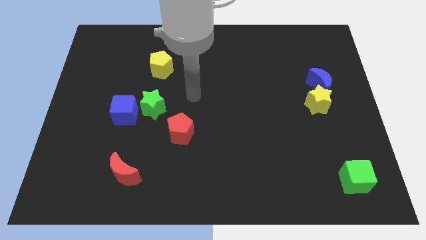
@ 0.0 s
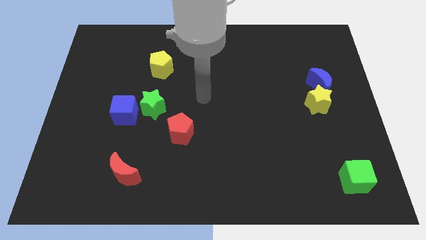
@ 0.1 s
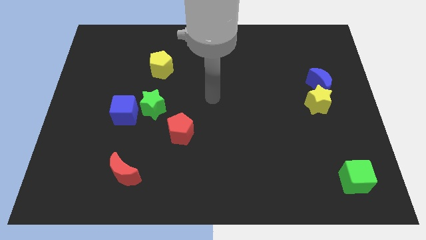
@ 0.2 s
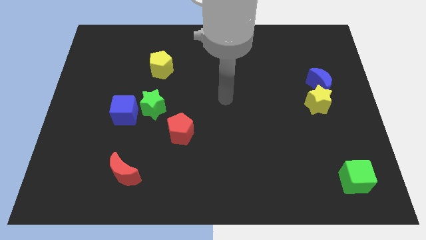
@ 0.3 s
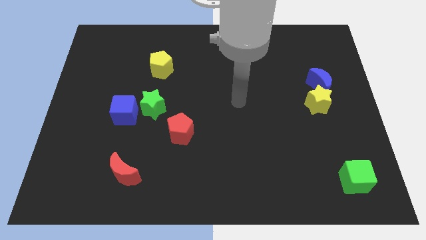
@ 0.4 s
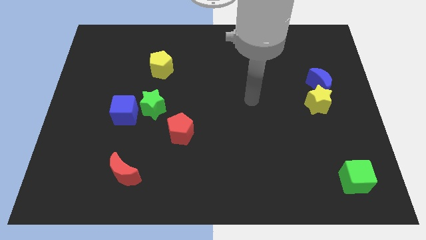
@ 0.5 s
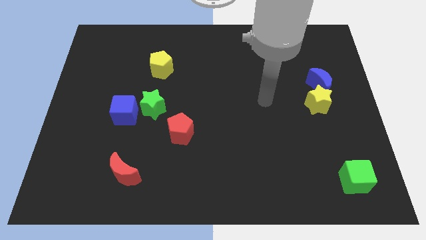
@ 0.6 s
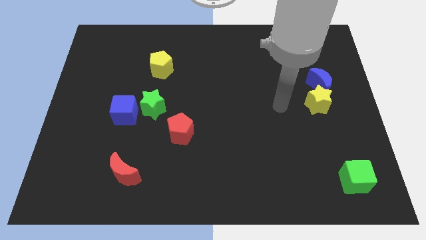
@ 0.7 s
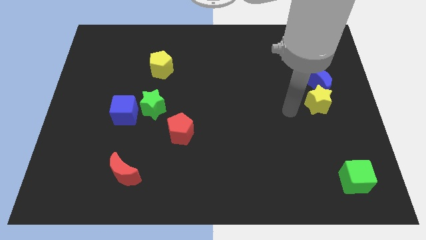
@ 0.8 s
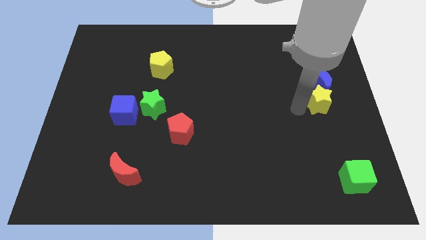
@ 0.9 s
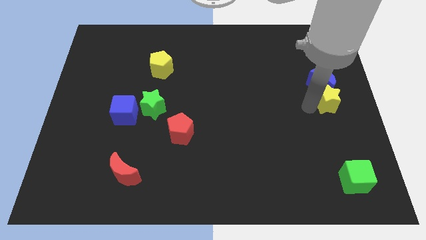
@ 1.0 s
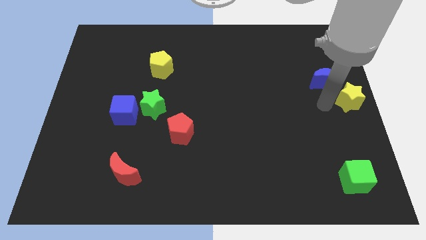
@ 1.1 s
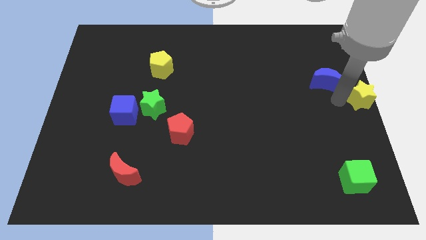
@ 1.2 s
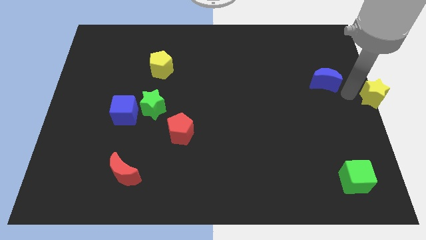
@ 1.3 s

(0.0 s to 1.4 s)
move the blue moon away from the yellow star

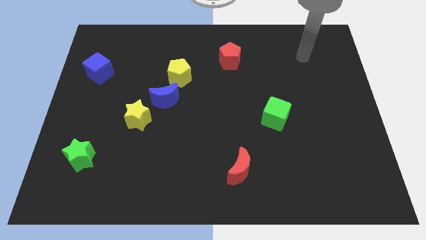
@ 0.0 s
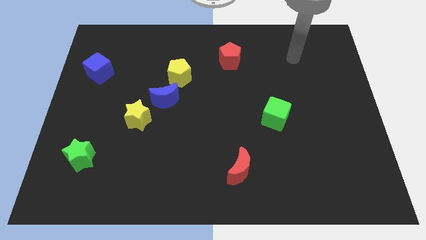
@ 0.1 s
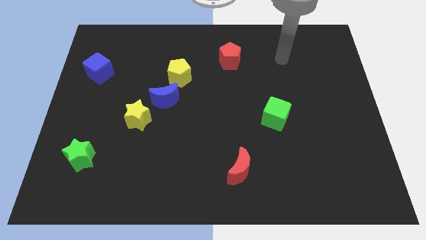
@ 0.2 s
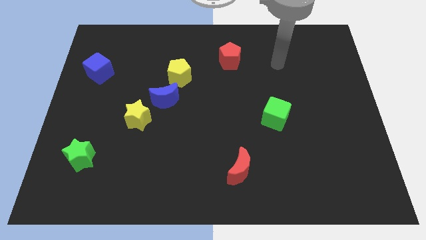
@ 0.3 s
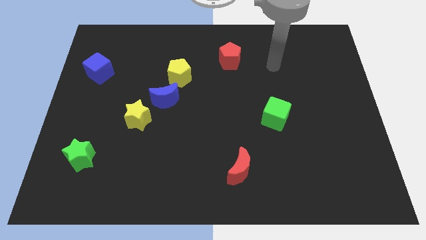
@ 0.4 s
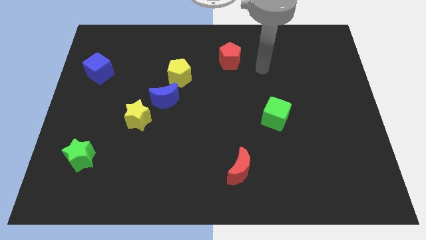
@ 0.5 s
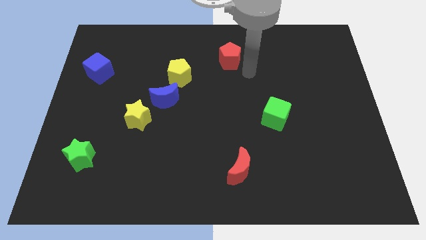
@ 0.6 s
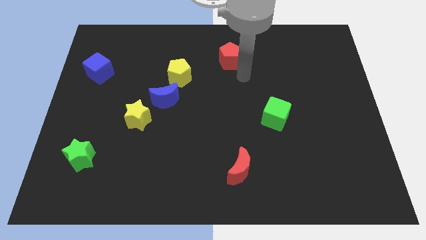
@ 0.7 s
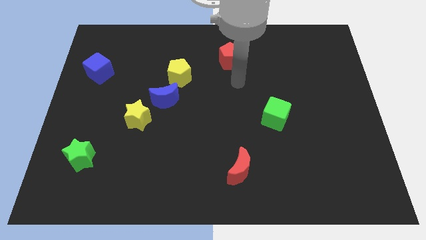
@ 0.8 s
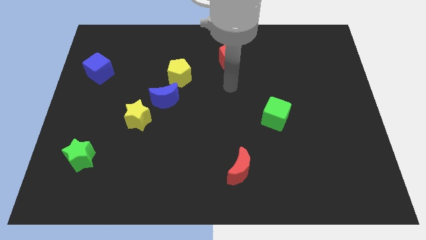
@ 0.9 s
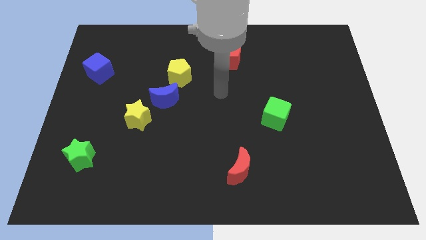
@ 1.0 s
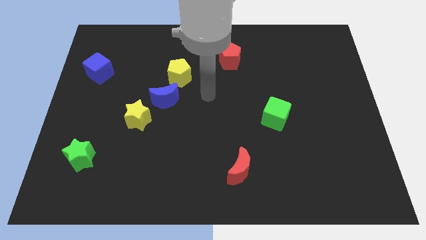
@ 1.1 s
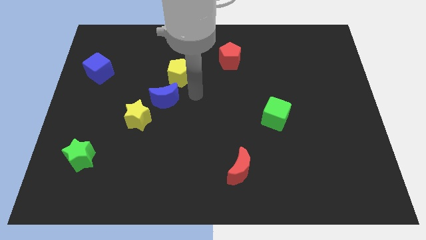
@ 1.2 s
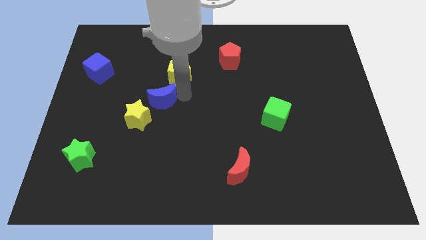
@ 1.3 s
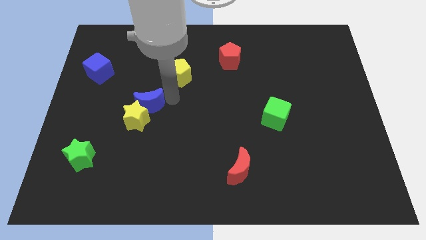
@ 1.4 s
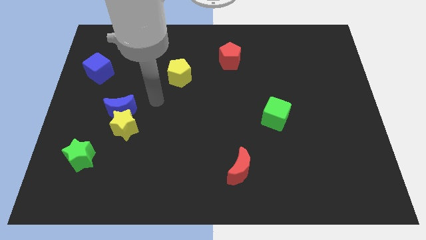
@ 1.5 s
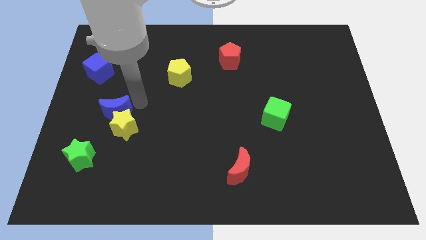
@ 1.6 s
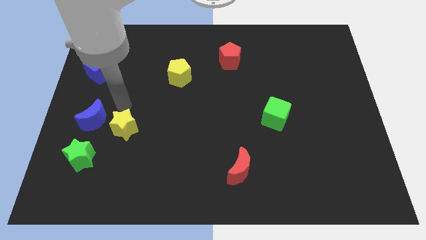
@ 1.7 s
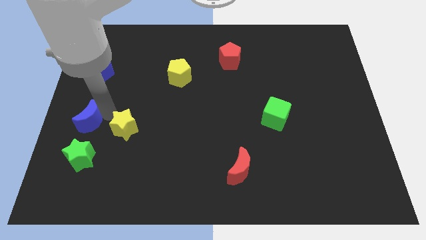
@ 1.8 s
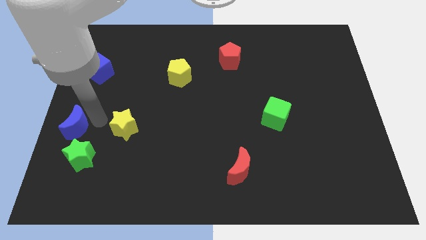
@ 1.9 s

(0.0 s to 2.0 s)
move the yellow star away from the blue moon

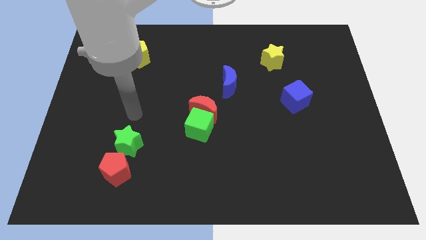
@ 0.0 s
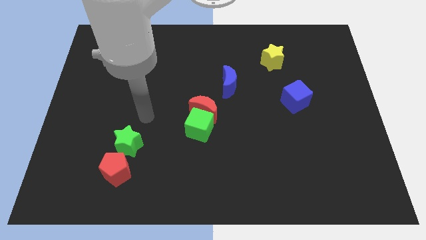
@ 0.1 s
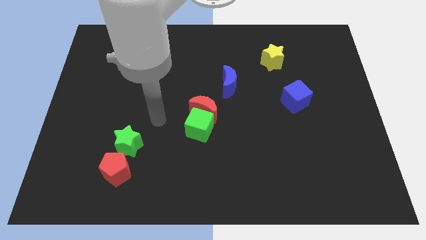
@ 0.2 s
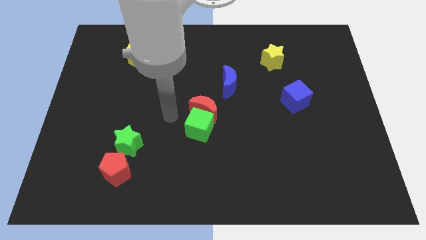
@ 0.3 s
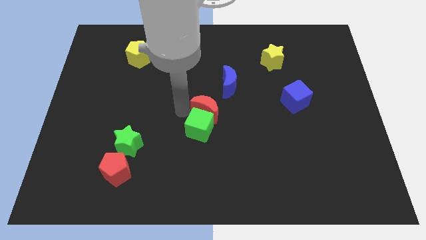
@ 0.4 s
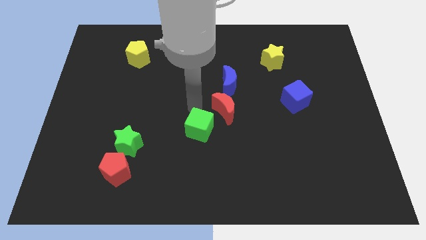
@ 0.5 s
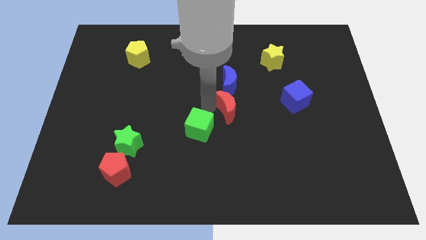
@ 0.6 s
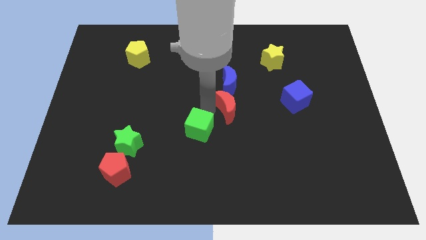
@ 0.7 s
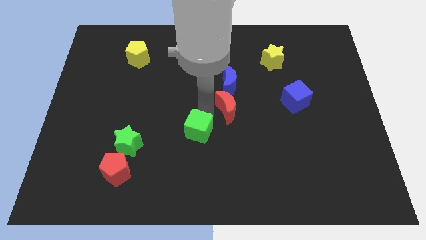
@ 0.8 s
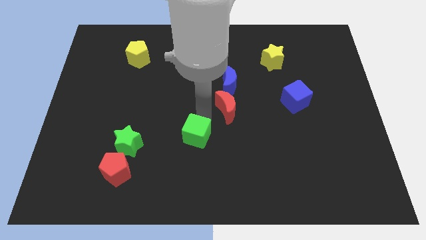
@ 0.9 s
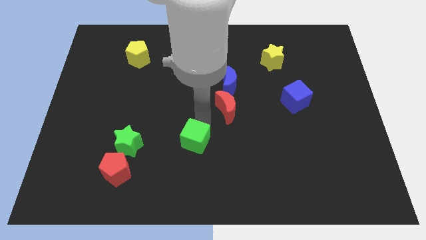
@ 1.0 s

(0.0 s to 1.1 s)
separate the green cube from the red moon

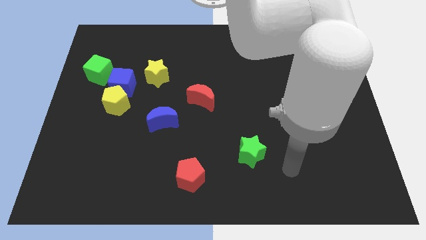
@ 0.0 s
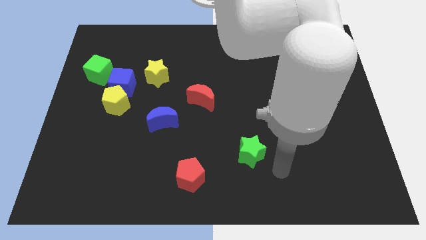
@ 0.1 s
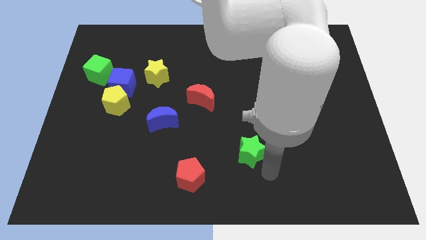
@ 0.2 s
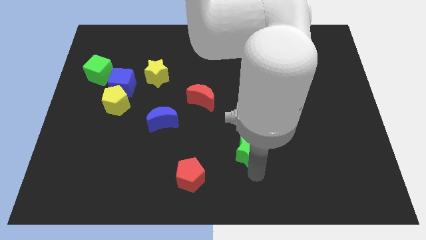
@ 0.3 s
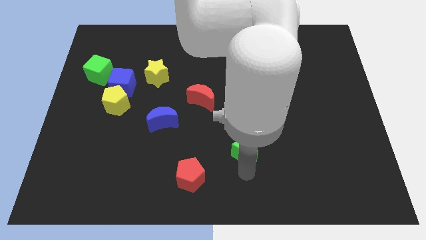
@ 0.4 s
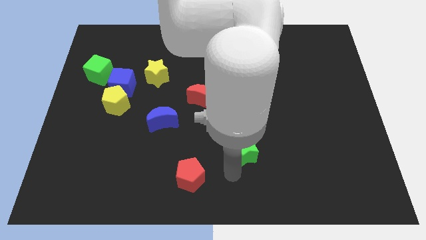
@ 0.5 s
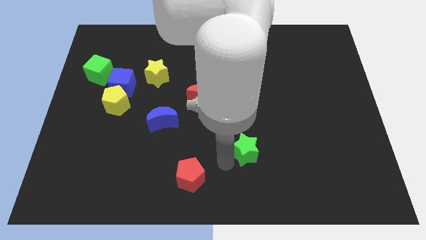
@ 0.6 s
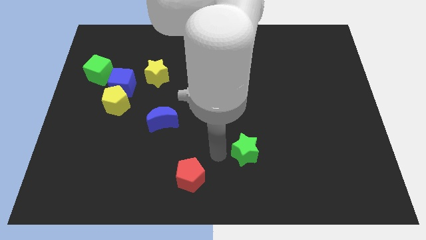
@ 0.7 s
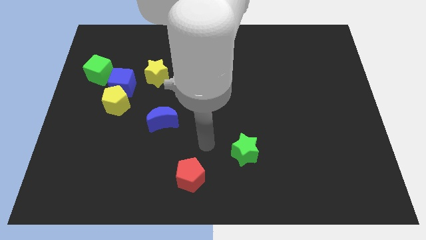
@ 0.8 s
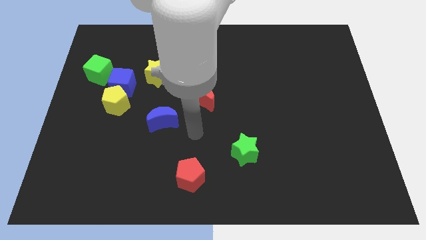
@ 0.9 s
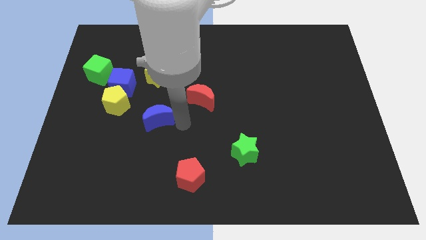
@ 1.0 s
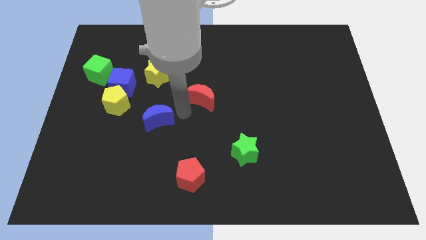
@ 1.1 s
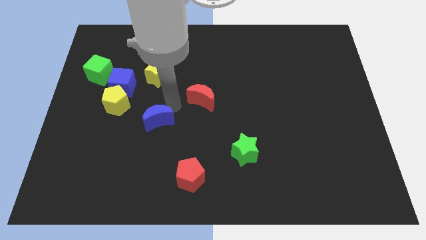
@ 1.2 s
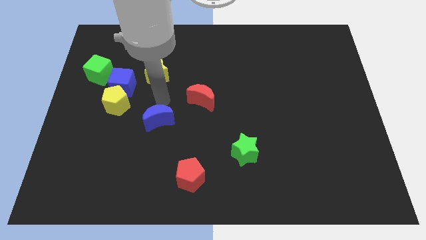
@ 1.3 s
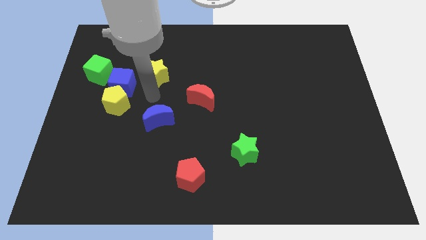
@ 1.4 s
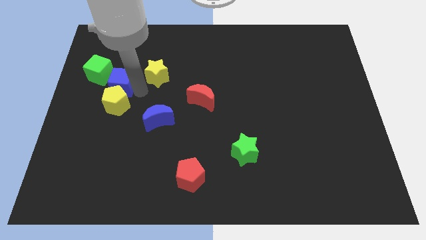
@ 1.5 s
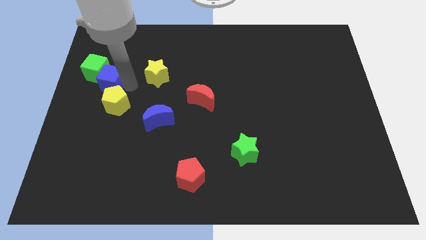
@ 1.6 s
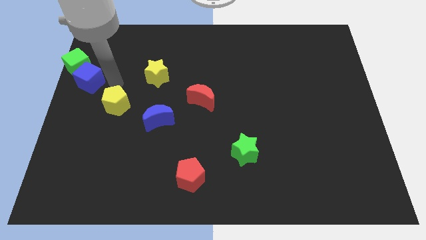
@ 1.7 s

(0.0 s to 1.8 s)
move the yellow pentagon away from the blue cube

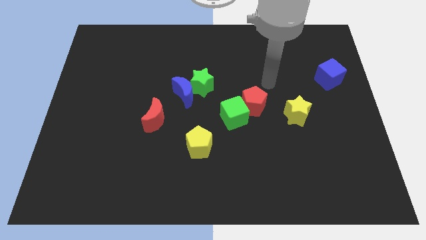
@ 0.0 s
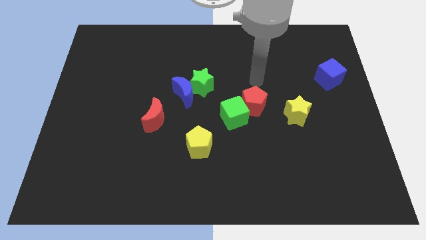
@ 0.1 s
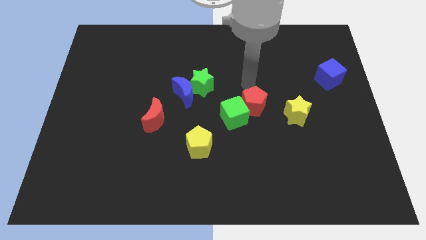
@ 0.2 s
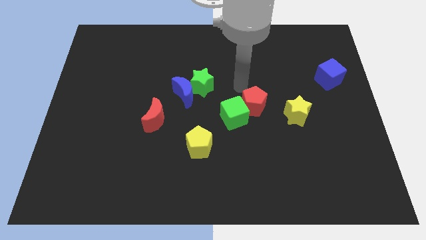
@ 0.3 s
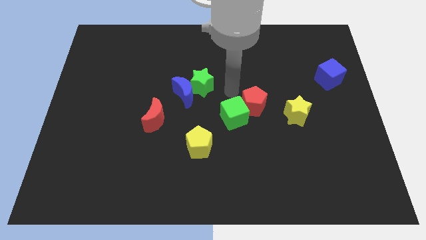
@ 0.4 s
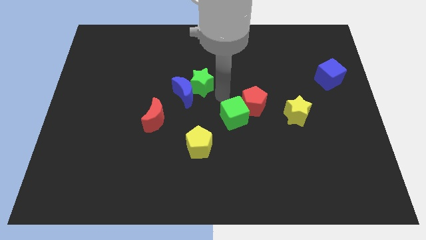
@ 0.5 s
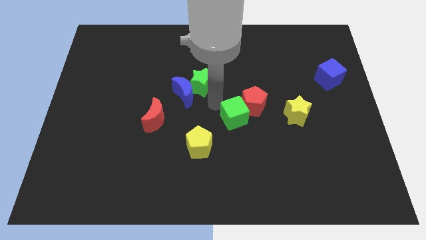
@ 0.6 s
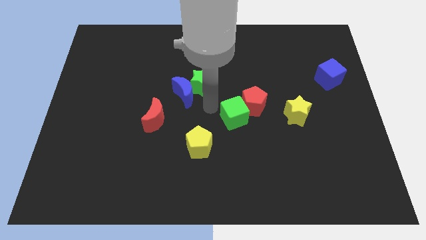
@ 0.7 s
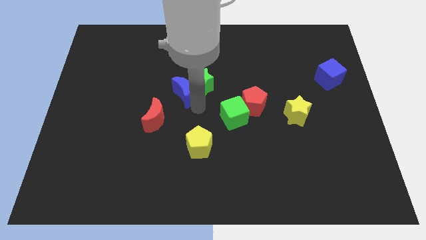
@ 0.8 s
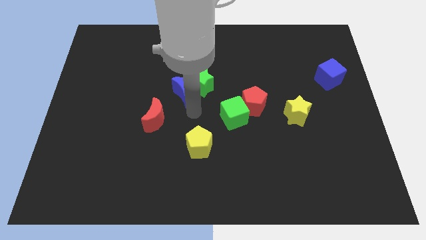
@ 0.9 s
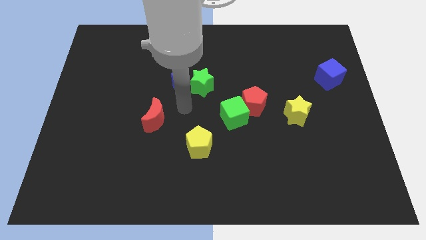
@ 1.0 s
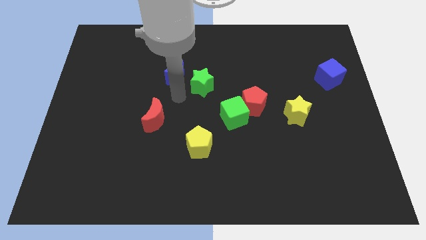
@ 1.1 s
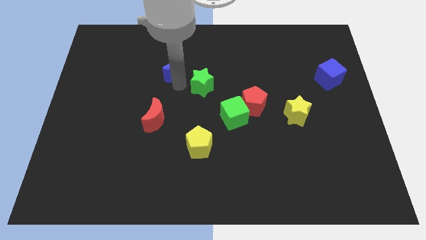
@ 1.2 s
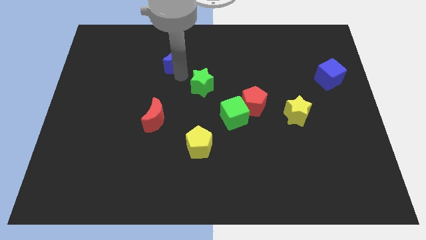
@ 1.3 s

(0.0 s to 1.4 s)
move the green star away from the blue moon

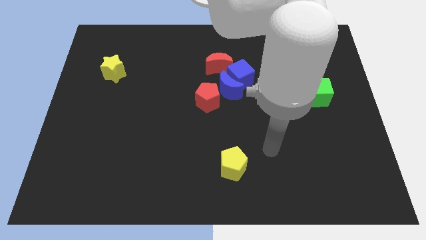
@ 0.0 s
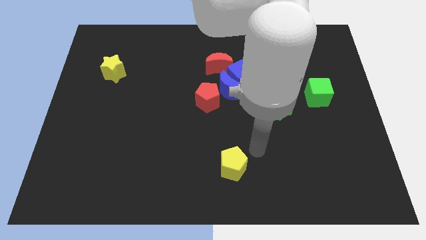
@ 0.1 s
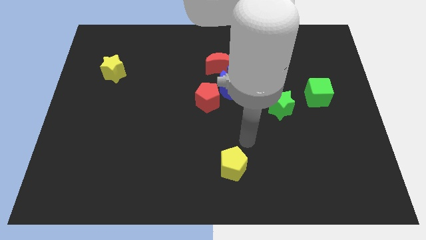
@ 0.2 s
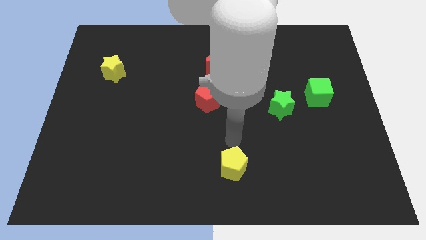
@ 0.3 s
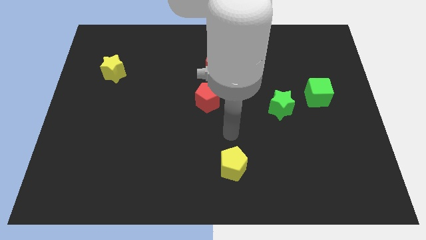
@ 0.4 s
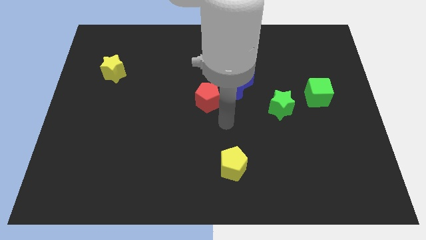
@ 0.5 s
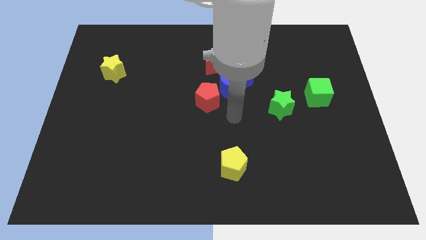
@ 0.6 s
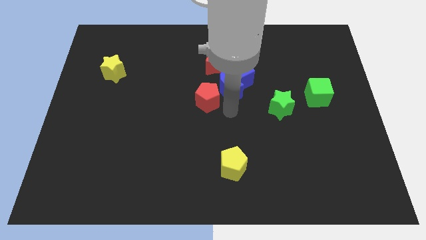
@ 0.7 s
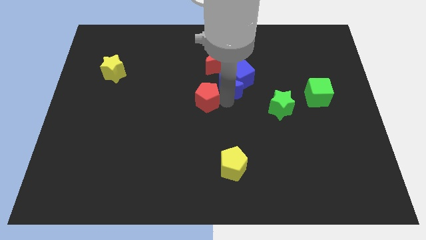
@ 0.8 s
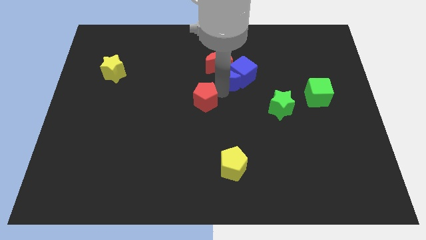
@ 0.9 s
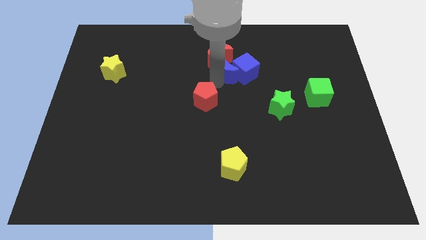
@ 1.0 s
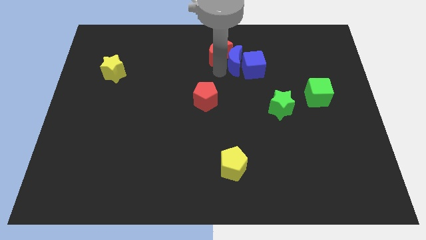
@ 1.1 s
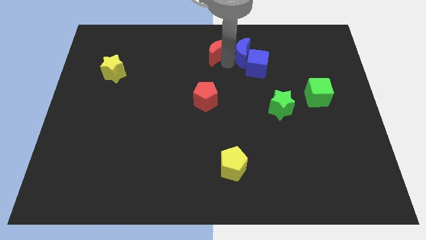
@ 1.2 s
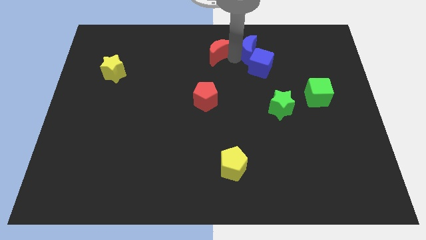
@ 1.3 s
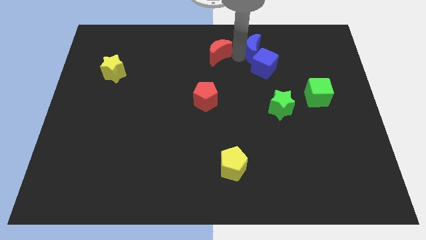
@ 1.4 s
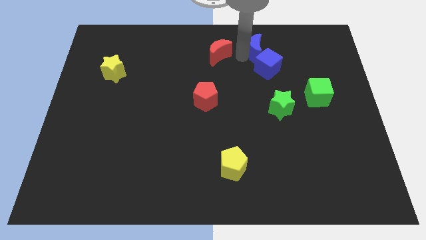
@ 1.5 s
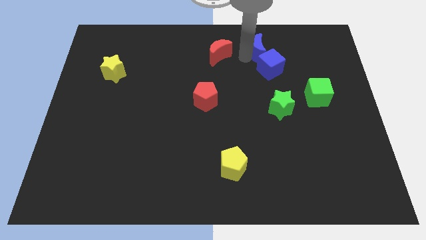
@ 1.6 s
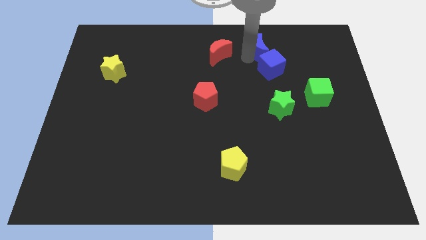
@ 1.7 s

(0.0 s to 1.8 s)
separate the blue cube from the blue moon and red moon
